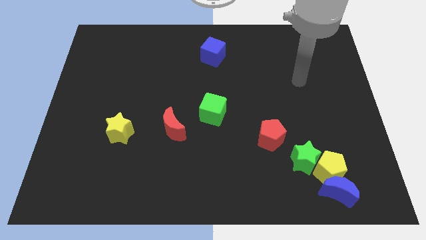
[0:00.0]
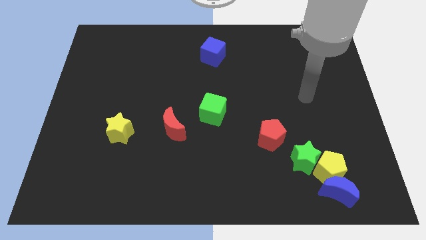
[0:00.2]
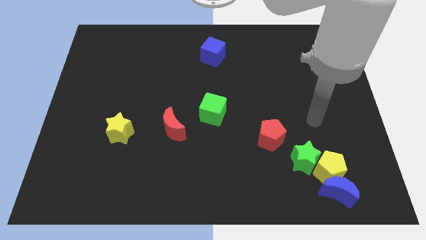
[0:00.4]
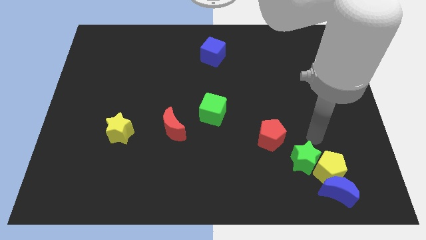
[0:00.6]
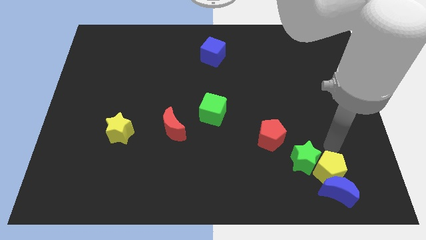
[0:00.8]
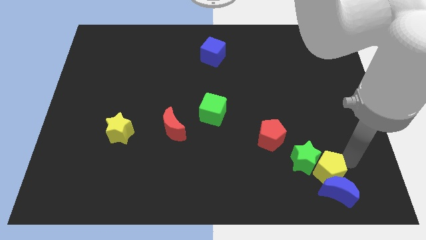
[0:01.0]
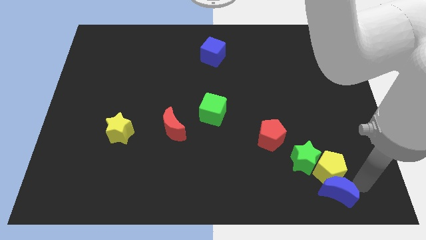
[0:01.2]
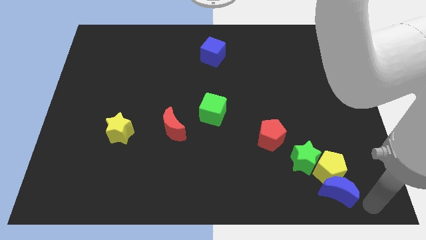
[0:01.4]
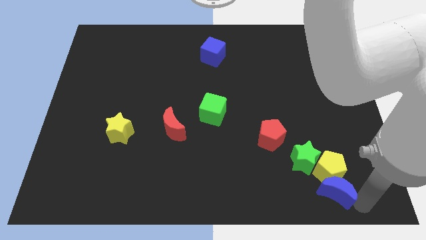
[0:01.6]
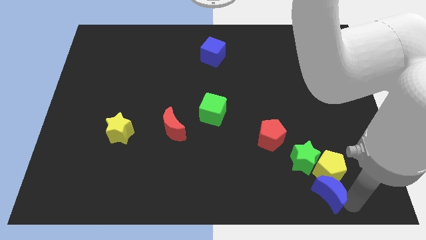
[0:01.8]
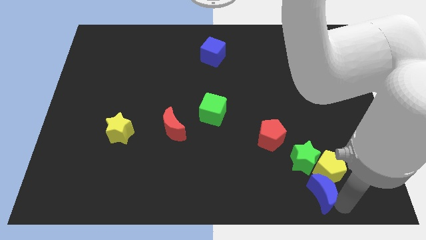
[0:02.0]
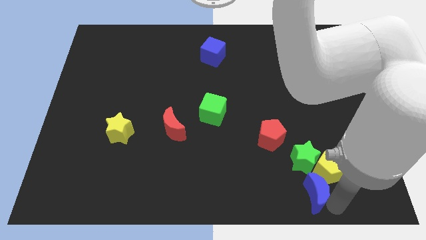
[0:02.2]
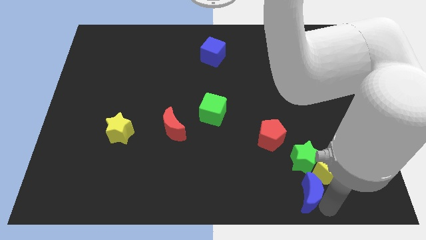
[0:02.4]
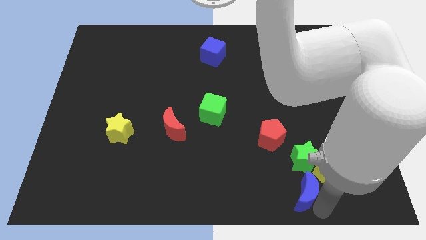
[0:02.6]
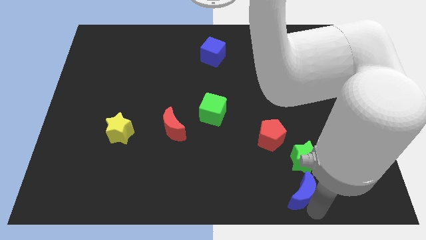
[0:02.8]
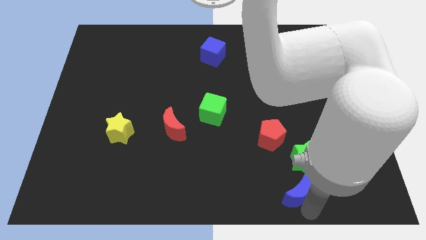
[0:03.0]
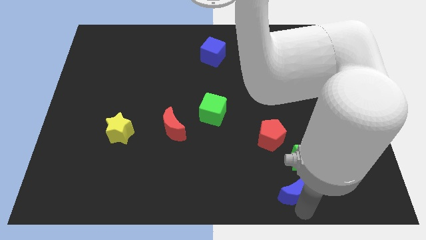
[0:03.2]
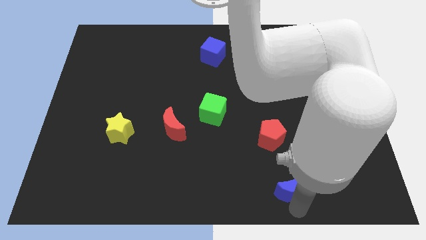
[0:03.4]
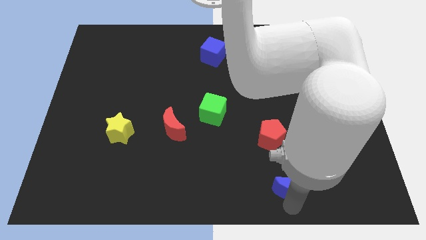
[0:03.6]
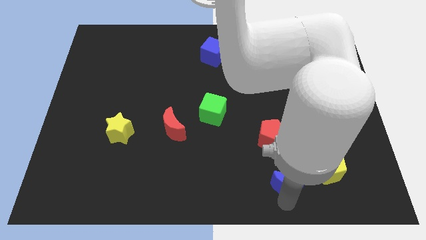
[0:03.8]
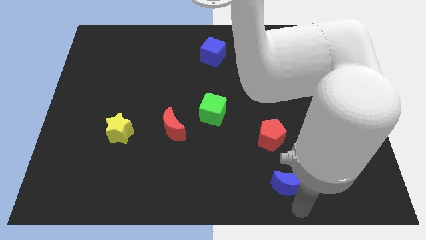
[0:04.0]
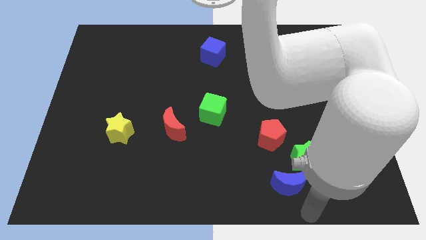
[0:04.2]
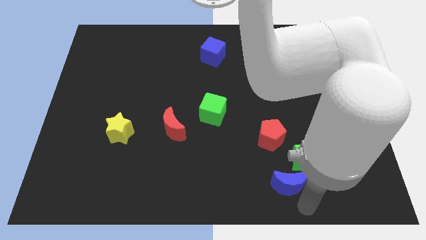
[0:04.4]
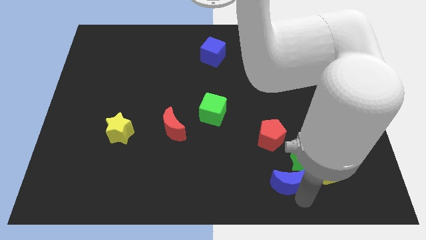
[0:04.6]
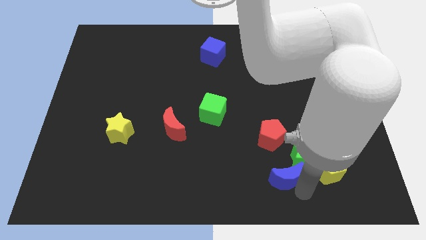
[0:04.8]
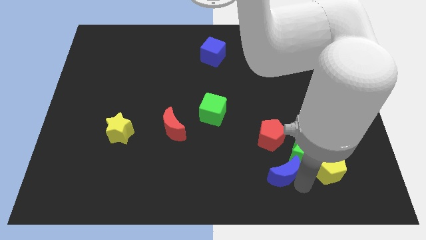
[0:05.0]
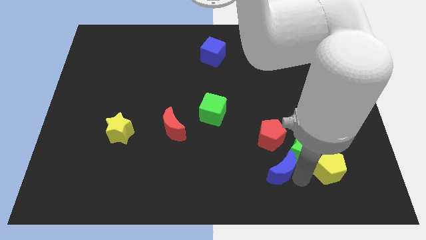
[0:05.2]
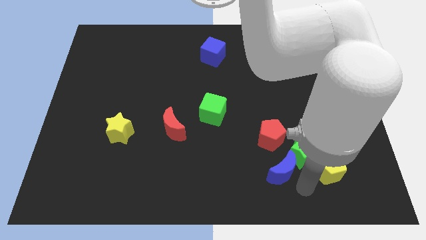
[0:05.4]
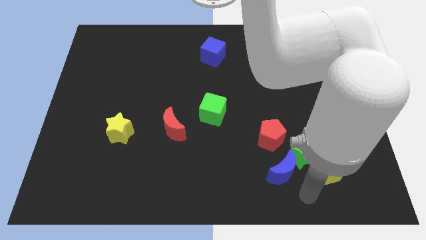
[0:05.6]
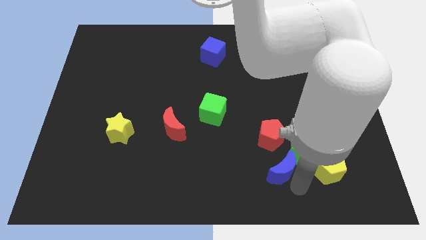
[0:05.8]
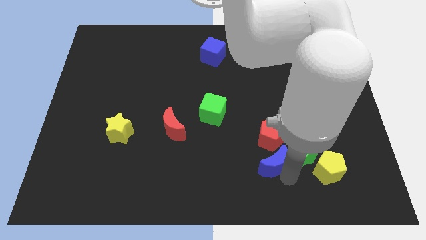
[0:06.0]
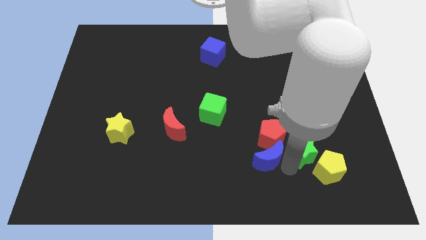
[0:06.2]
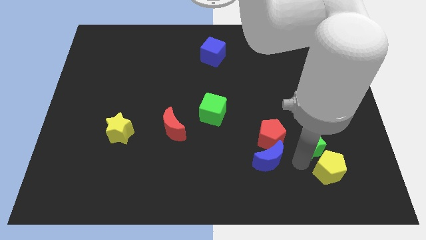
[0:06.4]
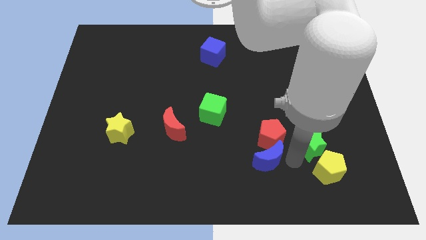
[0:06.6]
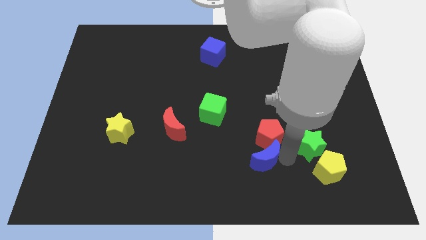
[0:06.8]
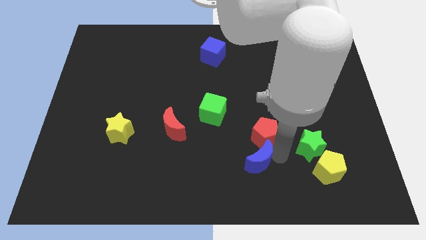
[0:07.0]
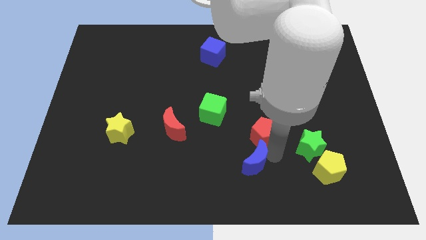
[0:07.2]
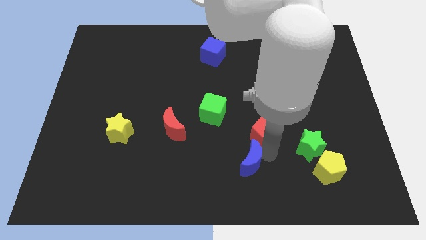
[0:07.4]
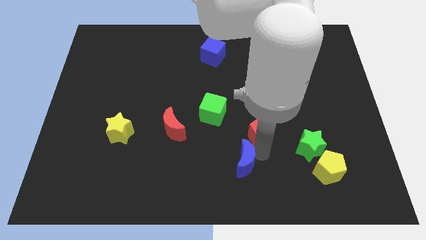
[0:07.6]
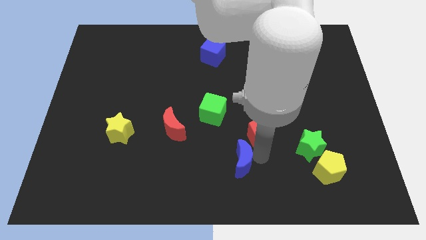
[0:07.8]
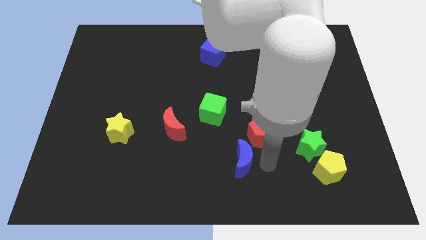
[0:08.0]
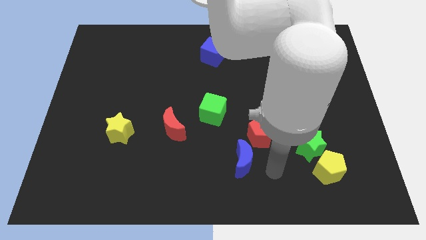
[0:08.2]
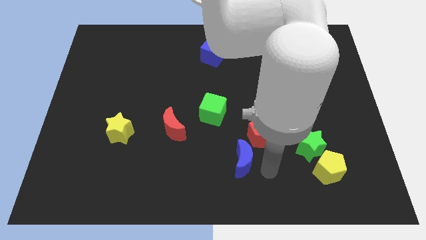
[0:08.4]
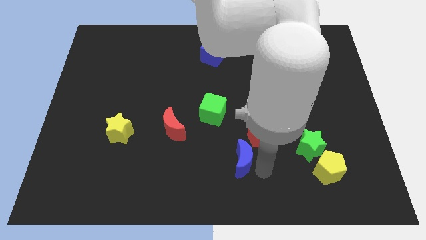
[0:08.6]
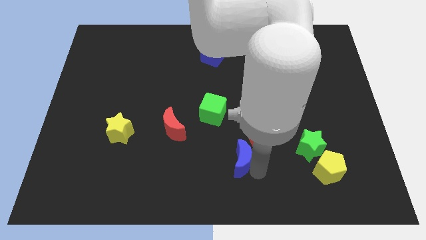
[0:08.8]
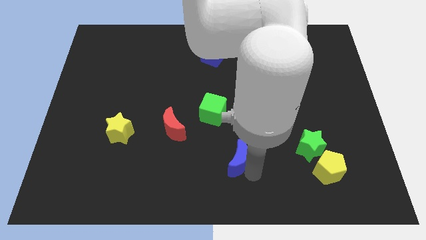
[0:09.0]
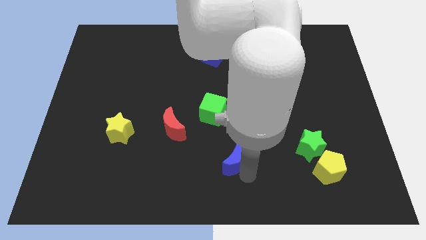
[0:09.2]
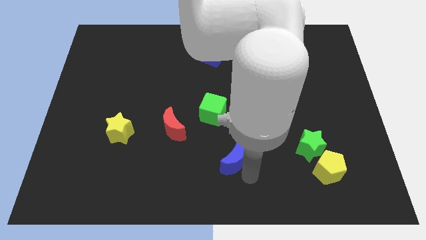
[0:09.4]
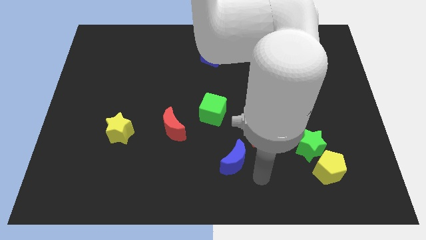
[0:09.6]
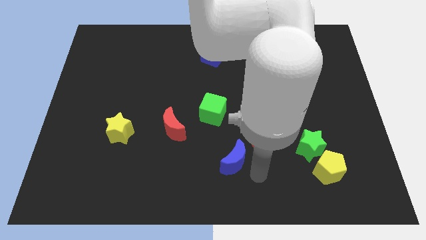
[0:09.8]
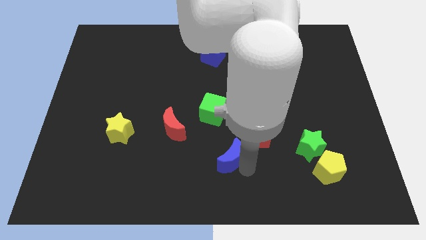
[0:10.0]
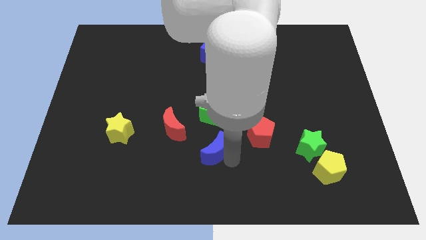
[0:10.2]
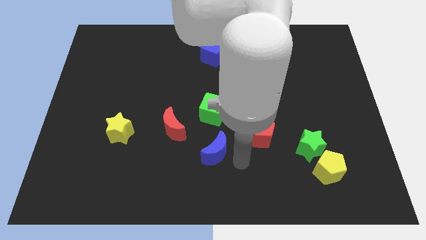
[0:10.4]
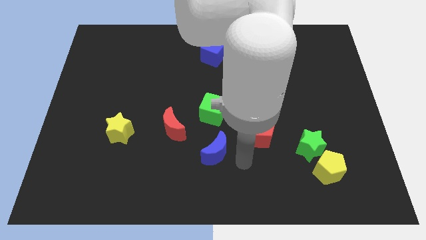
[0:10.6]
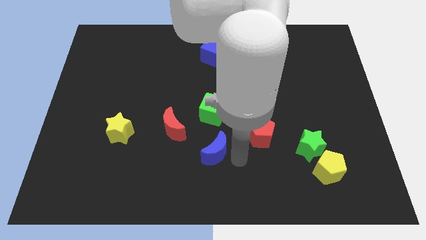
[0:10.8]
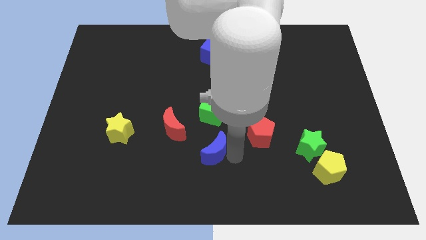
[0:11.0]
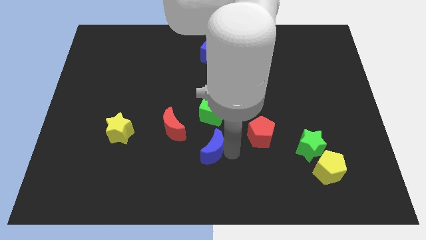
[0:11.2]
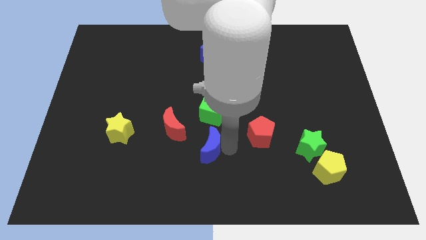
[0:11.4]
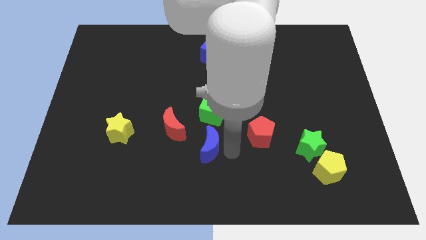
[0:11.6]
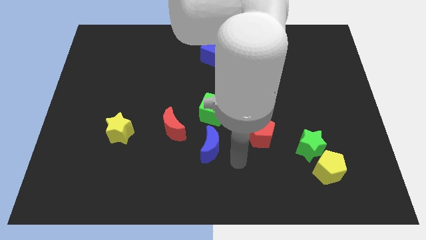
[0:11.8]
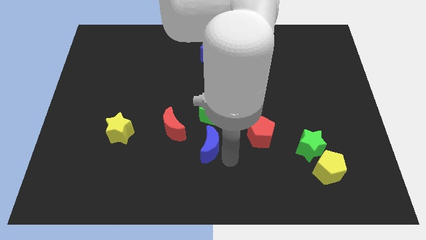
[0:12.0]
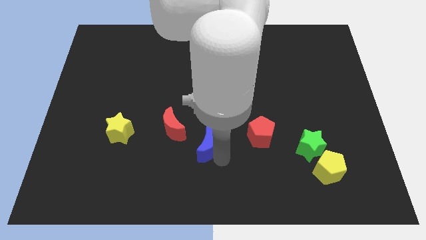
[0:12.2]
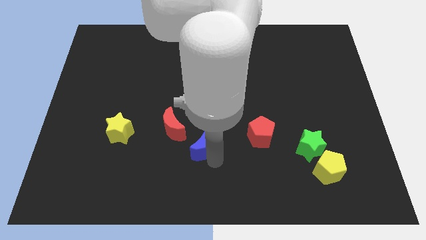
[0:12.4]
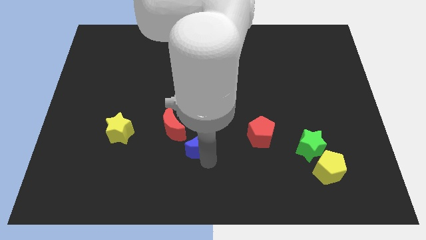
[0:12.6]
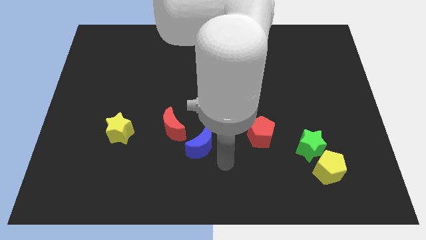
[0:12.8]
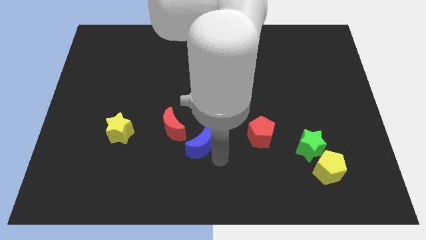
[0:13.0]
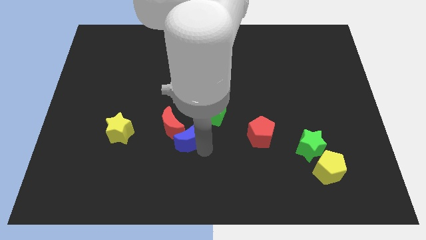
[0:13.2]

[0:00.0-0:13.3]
slide the blue moon towards the red moon

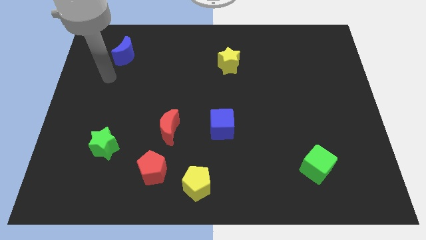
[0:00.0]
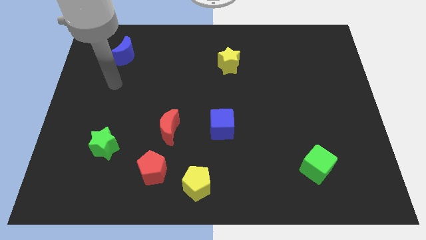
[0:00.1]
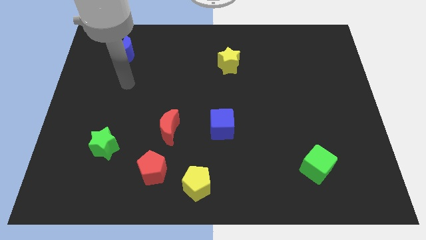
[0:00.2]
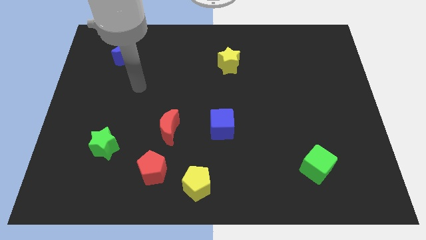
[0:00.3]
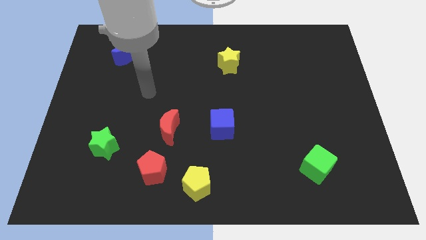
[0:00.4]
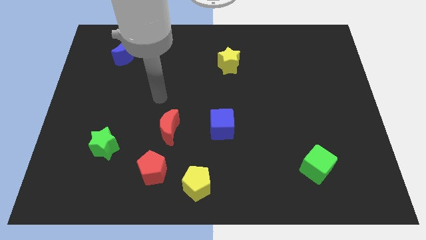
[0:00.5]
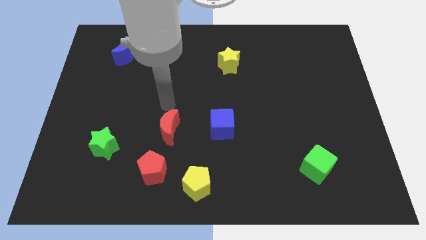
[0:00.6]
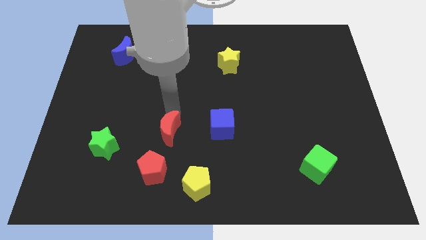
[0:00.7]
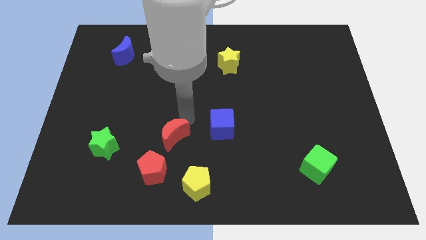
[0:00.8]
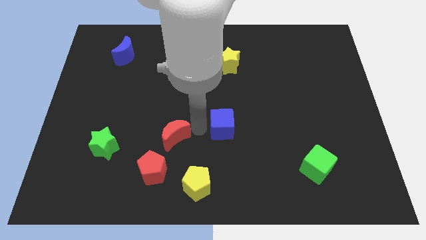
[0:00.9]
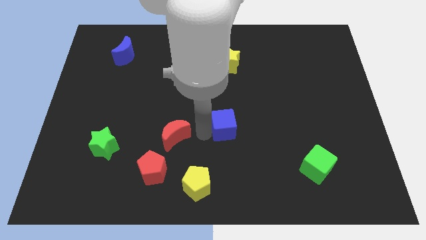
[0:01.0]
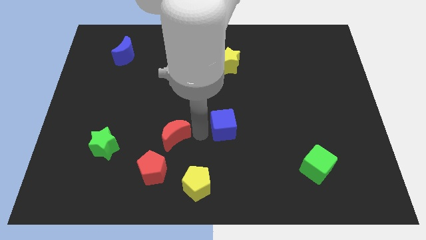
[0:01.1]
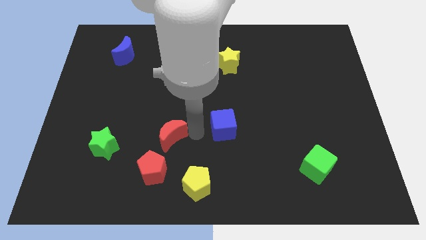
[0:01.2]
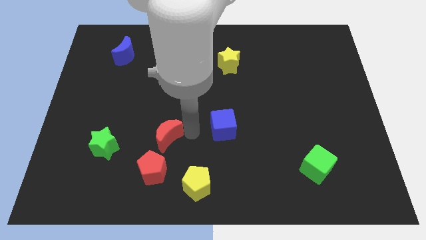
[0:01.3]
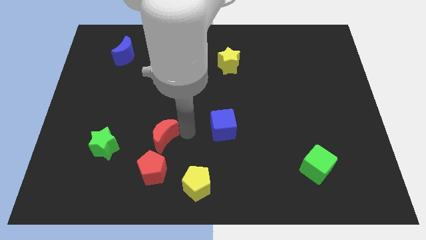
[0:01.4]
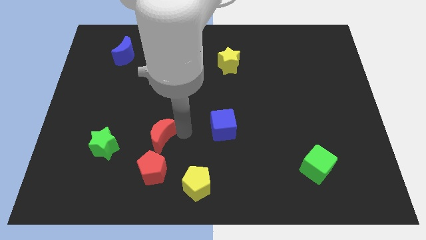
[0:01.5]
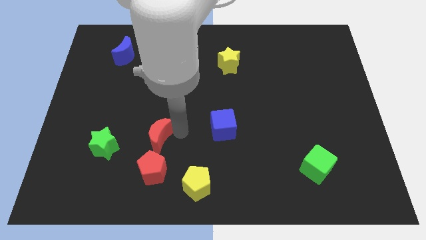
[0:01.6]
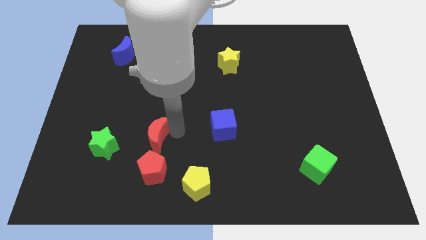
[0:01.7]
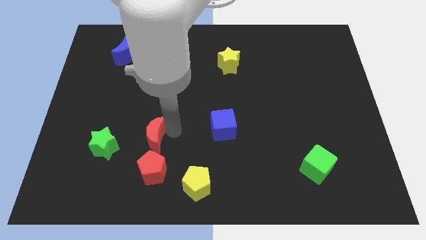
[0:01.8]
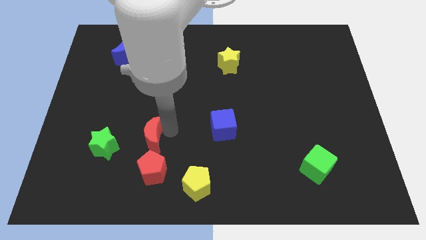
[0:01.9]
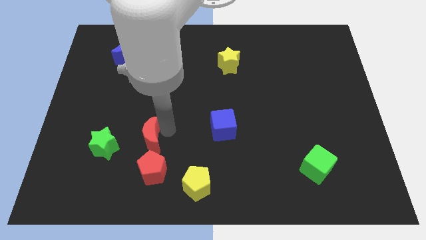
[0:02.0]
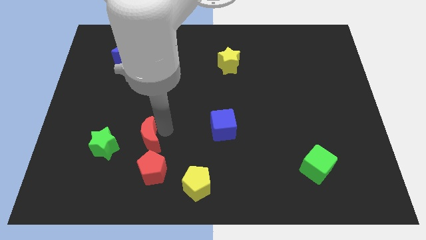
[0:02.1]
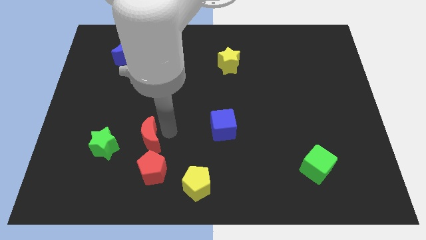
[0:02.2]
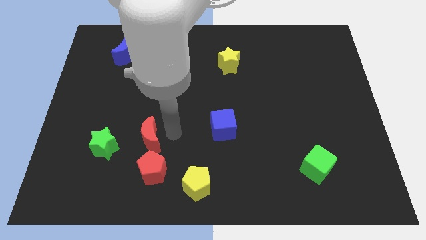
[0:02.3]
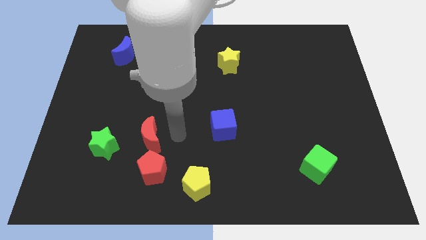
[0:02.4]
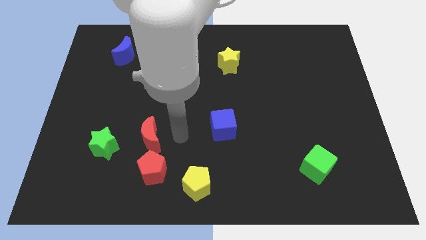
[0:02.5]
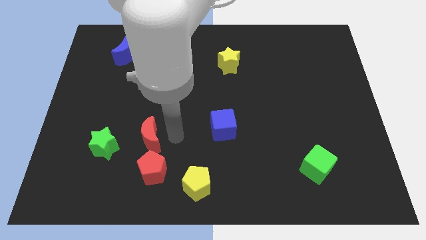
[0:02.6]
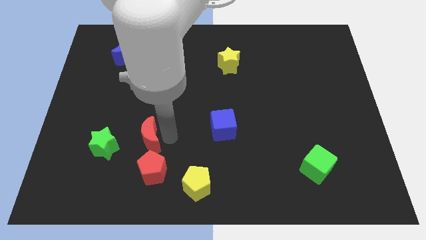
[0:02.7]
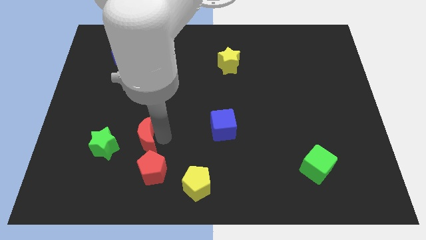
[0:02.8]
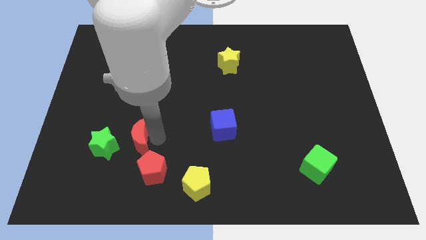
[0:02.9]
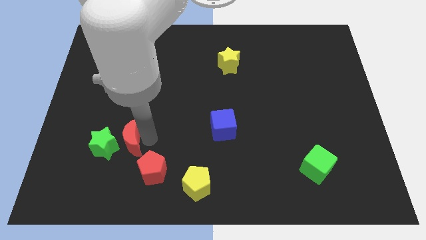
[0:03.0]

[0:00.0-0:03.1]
slide the red moon close to the green star
